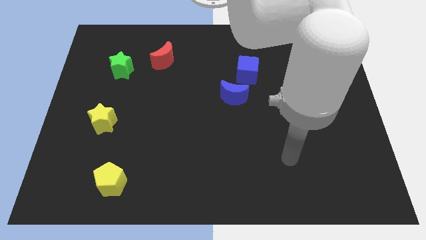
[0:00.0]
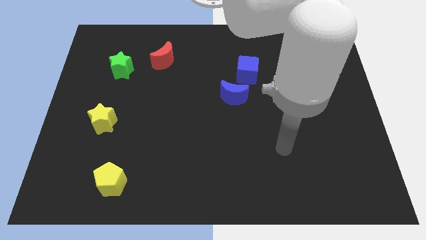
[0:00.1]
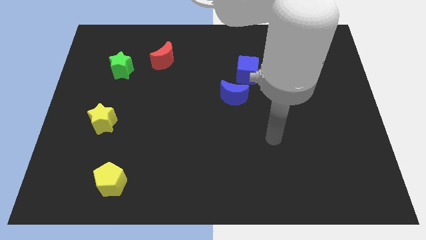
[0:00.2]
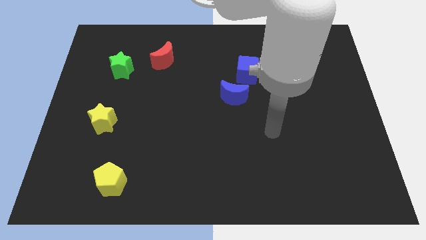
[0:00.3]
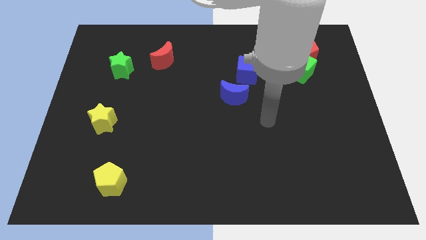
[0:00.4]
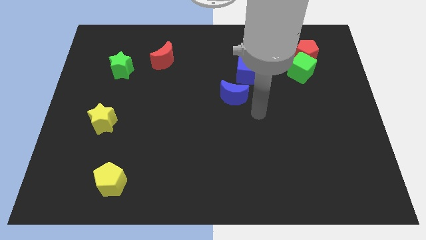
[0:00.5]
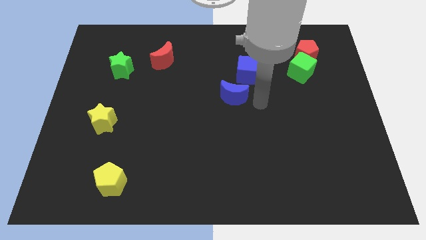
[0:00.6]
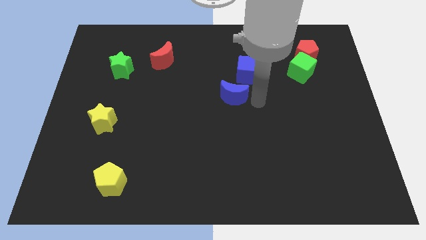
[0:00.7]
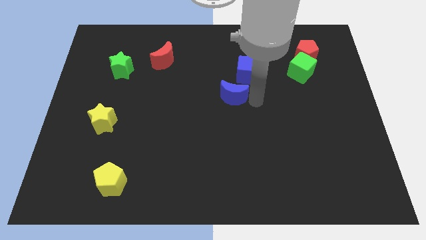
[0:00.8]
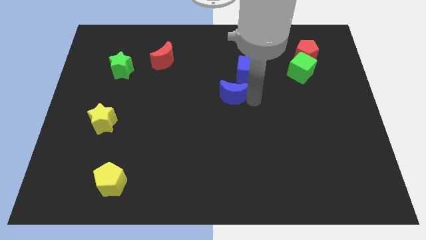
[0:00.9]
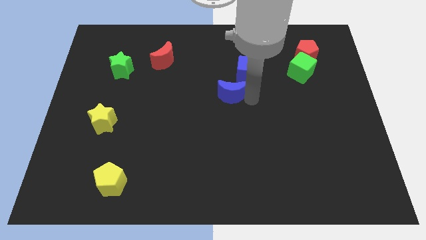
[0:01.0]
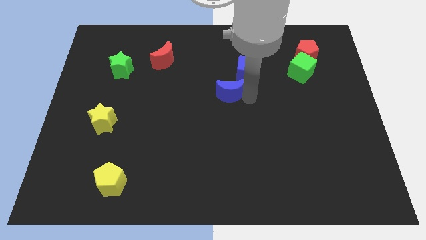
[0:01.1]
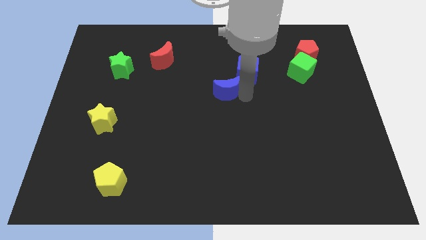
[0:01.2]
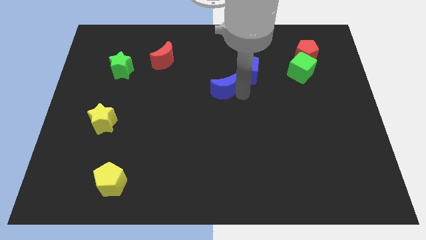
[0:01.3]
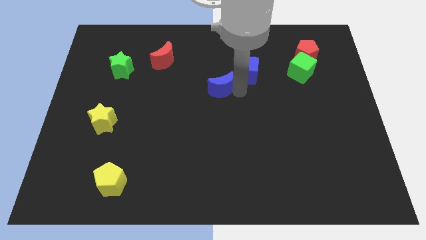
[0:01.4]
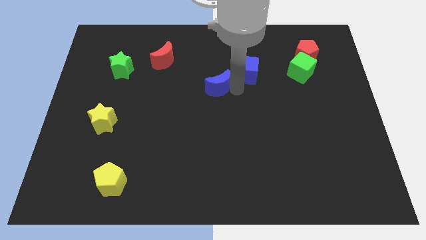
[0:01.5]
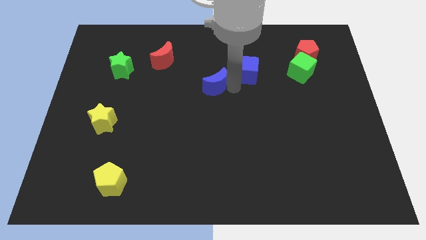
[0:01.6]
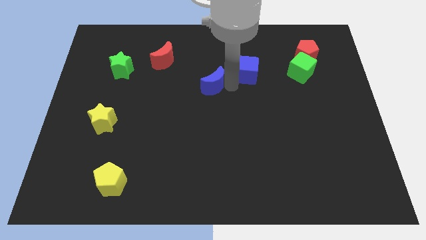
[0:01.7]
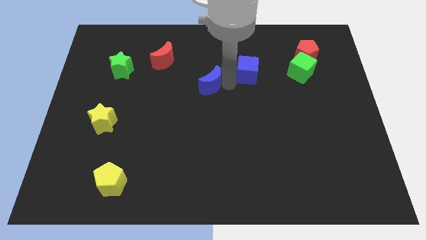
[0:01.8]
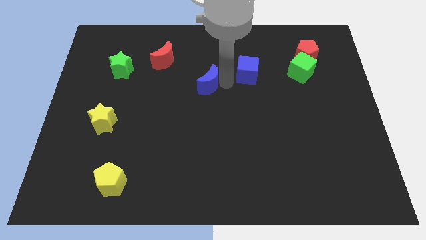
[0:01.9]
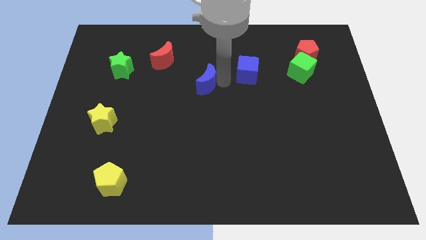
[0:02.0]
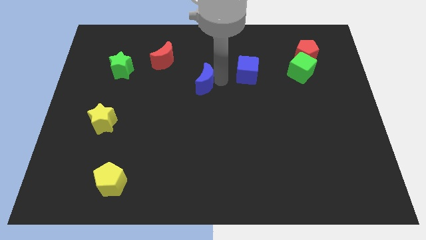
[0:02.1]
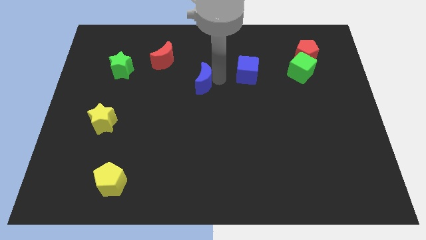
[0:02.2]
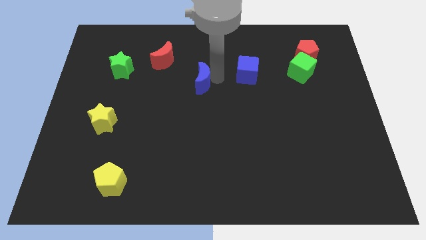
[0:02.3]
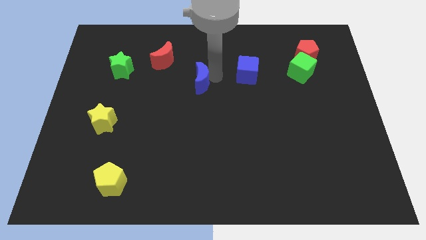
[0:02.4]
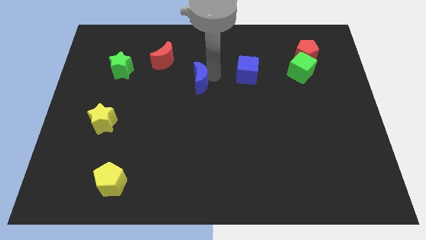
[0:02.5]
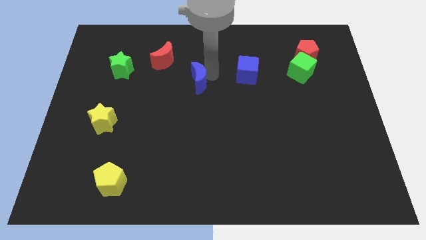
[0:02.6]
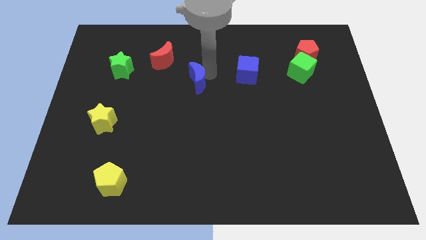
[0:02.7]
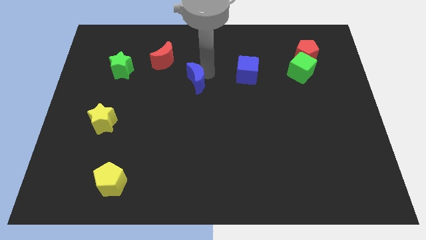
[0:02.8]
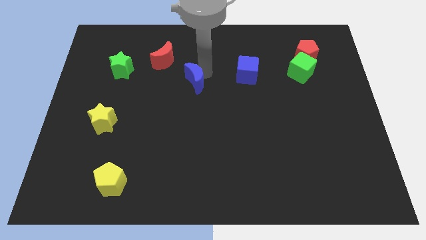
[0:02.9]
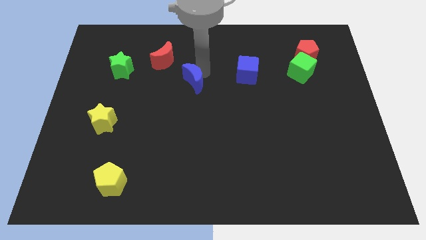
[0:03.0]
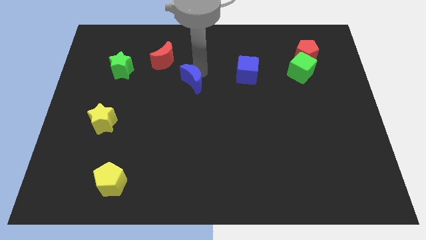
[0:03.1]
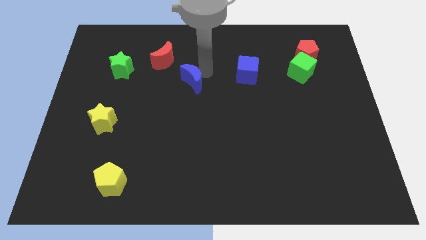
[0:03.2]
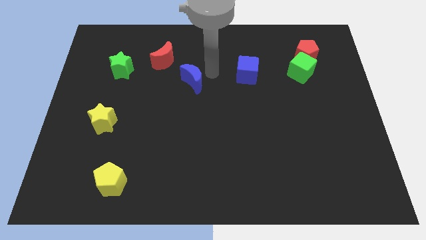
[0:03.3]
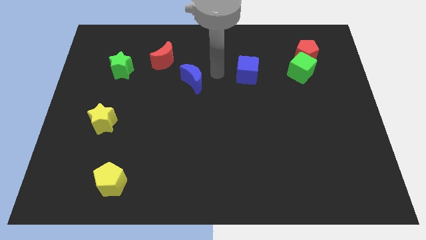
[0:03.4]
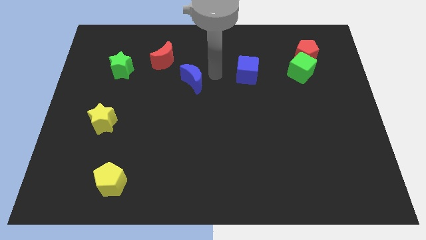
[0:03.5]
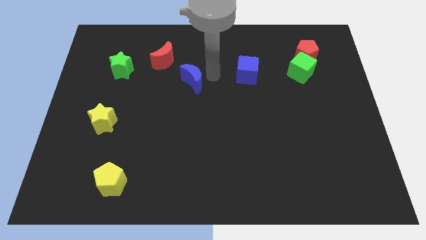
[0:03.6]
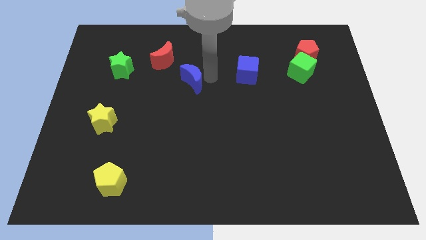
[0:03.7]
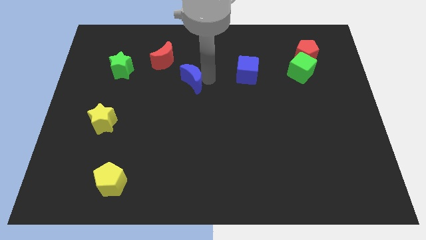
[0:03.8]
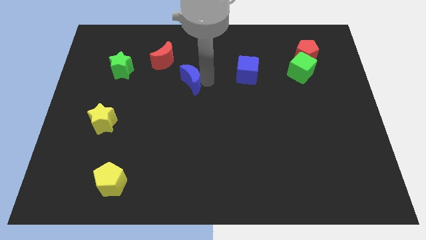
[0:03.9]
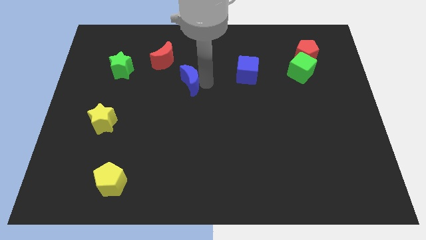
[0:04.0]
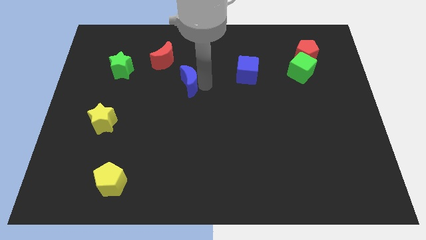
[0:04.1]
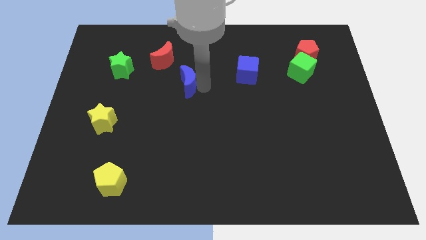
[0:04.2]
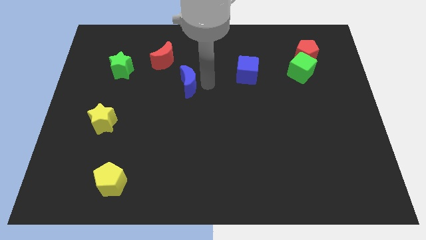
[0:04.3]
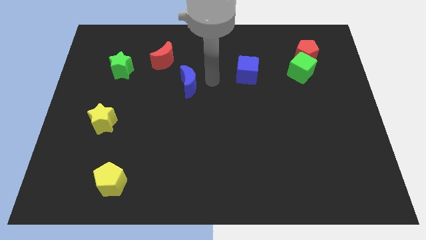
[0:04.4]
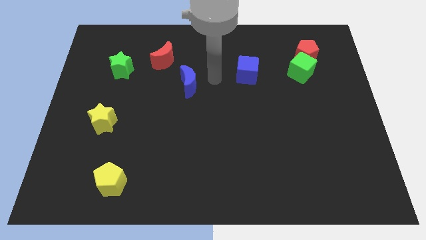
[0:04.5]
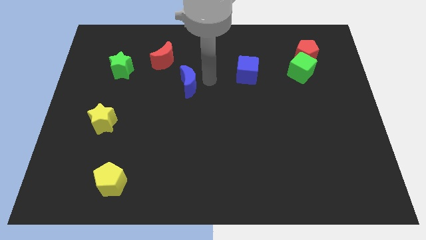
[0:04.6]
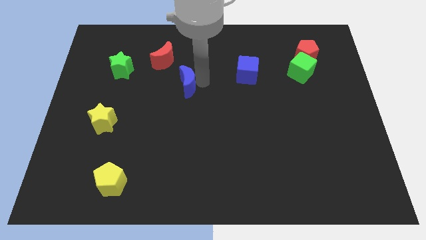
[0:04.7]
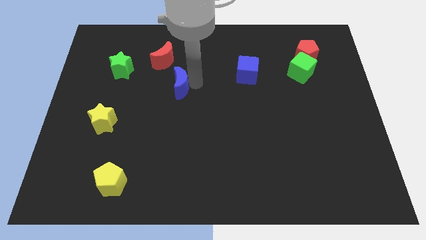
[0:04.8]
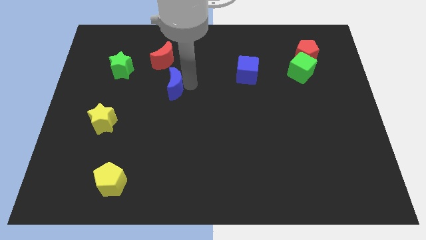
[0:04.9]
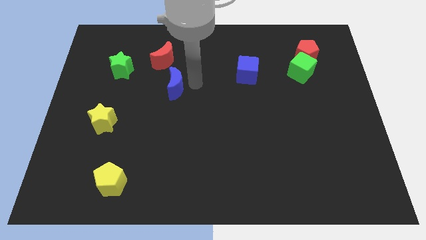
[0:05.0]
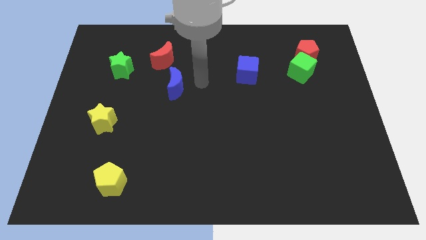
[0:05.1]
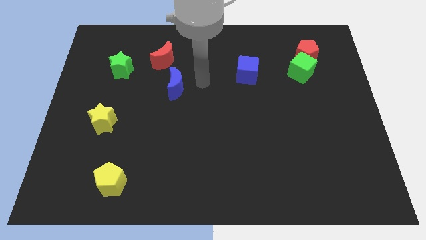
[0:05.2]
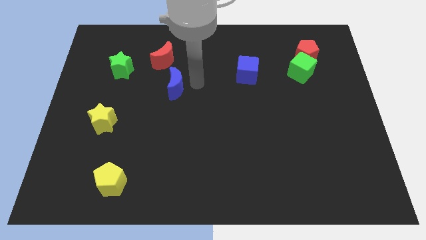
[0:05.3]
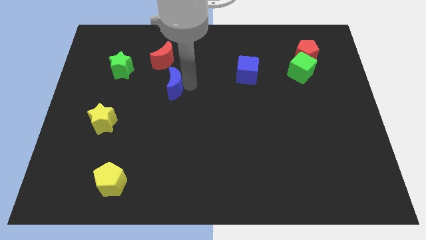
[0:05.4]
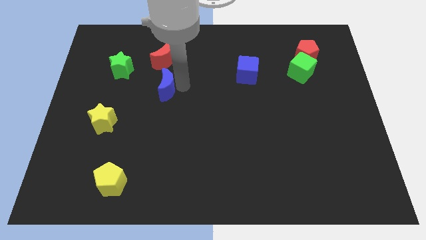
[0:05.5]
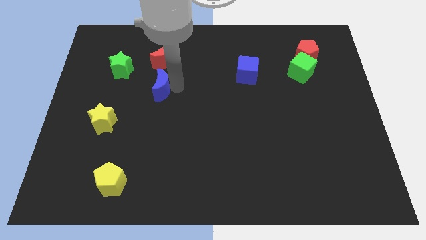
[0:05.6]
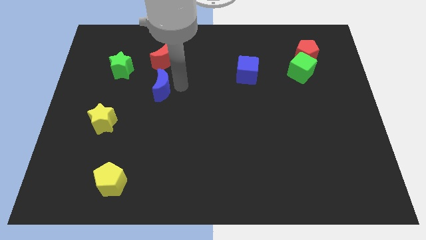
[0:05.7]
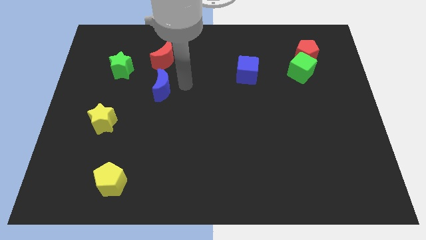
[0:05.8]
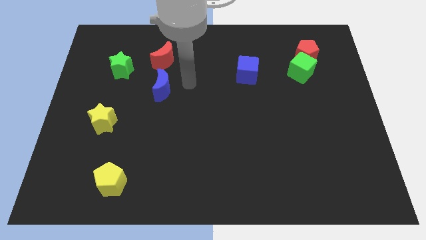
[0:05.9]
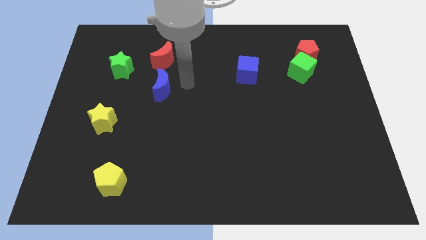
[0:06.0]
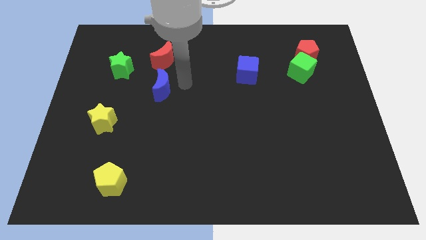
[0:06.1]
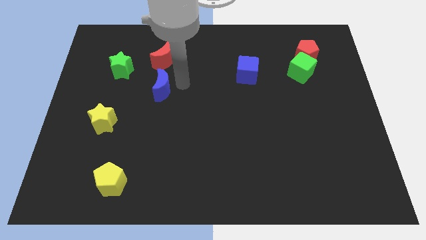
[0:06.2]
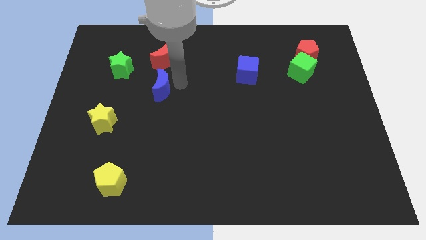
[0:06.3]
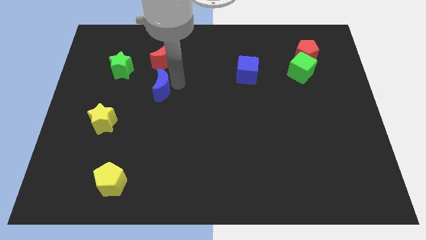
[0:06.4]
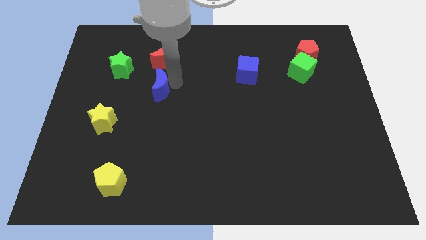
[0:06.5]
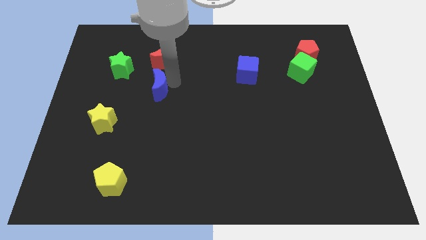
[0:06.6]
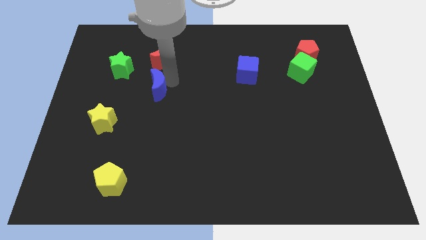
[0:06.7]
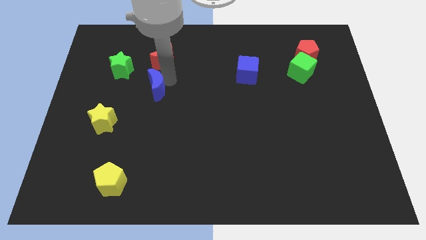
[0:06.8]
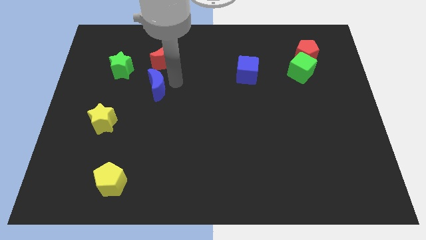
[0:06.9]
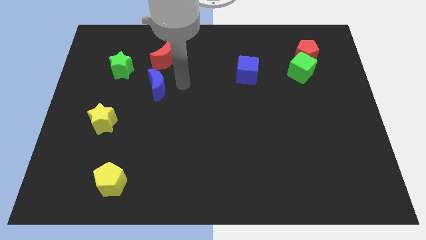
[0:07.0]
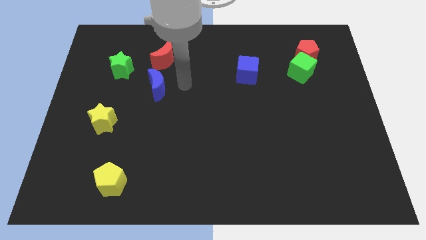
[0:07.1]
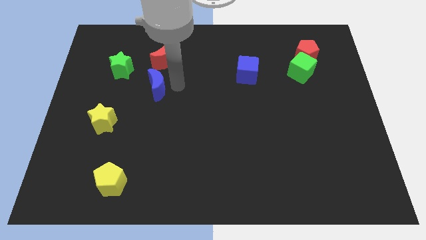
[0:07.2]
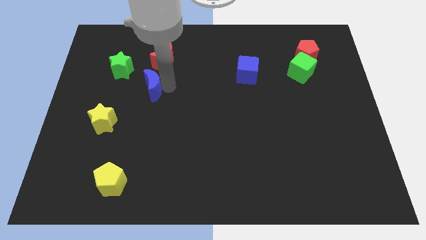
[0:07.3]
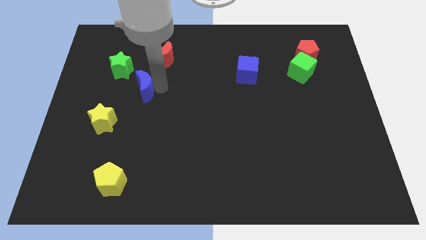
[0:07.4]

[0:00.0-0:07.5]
push the blue moon left

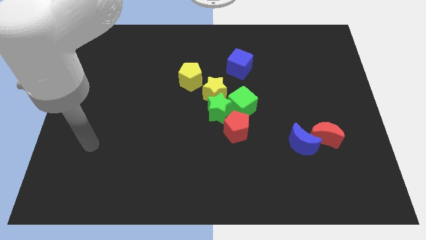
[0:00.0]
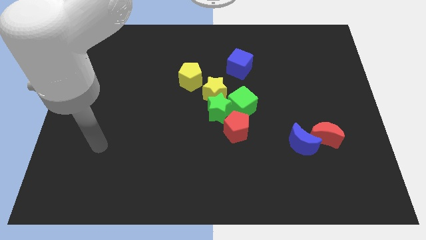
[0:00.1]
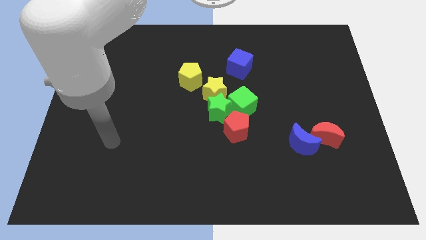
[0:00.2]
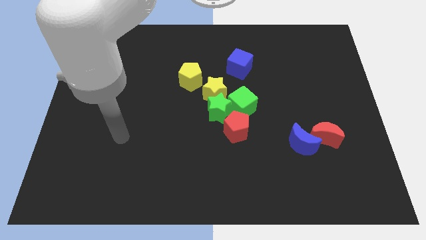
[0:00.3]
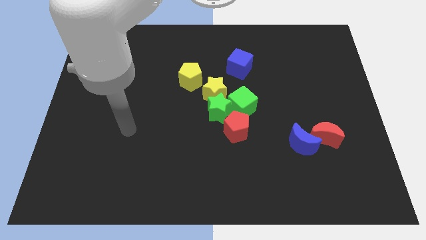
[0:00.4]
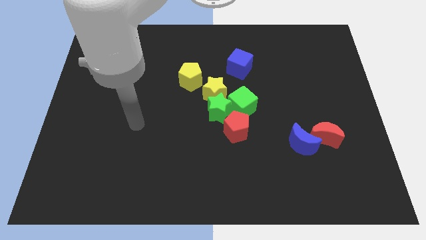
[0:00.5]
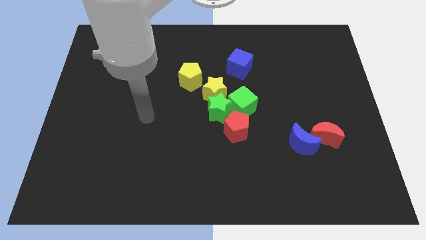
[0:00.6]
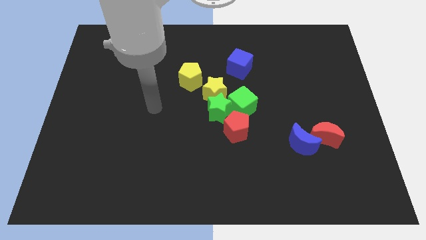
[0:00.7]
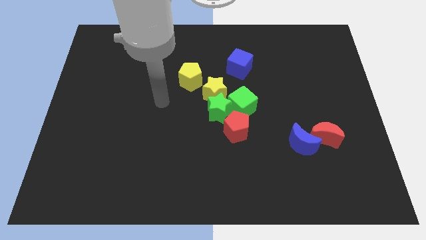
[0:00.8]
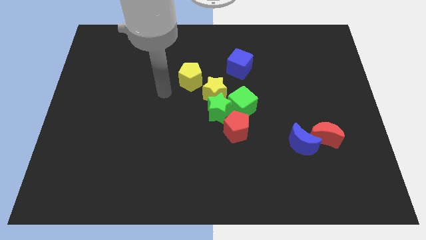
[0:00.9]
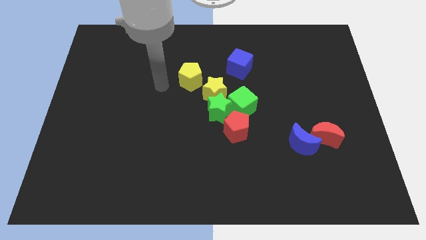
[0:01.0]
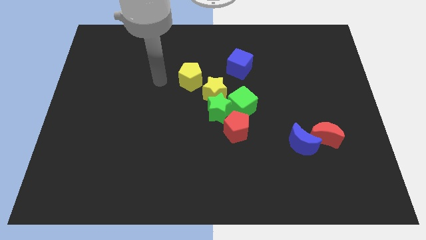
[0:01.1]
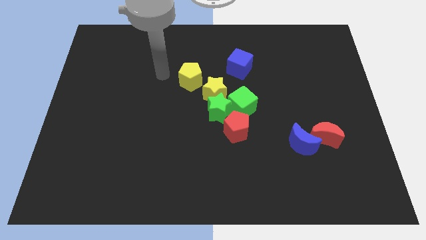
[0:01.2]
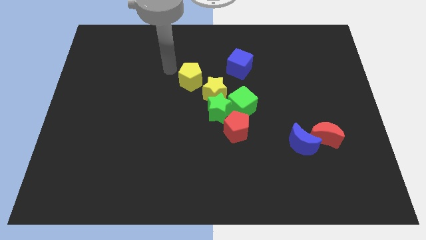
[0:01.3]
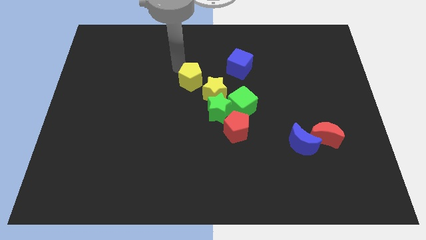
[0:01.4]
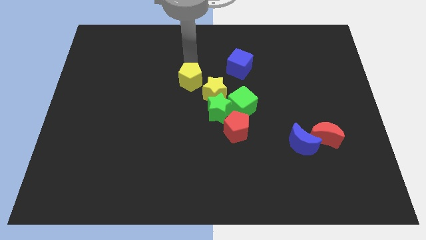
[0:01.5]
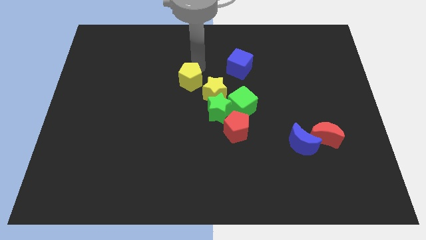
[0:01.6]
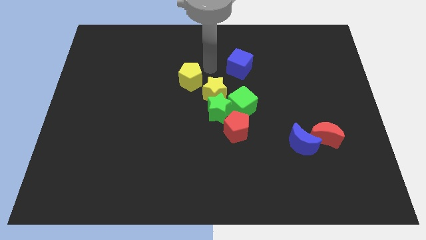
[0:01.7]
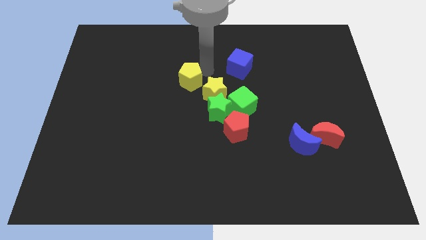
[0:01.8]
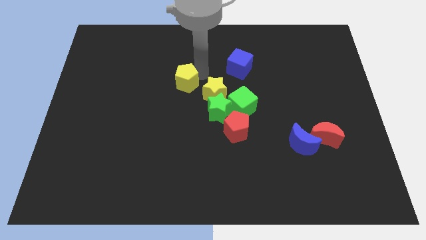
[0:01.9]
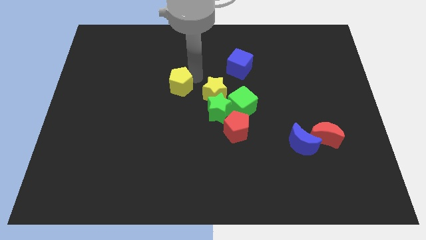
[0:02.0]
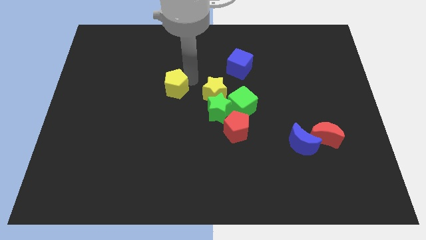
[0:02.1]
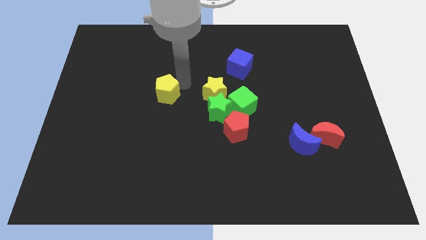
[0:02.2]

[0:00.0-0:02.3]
slightly push the yellow pentagon downwards and to the left diagonally
